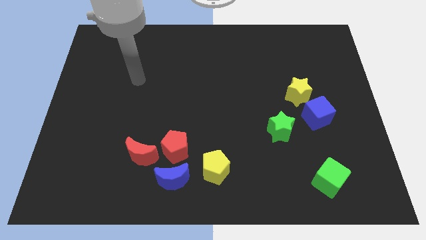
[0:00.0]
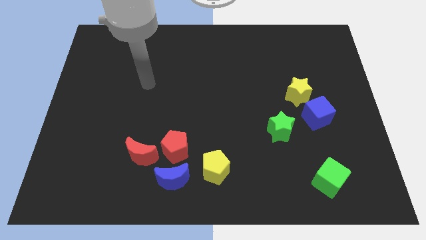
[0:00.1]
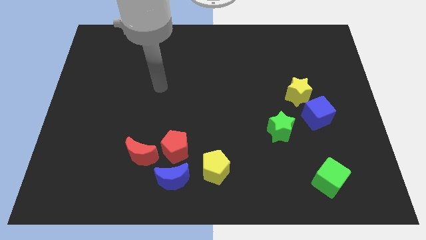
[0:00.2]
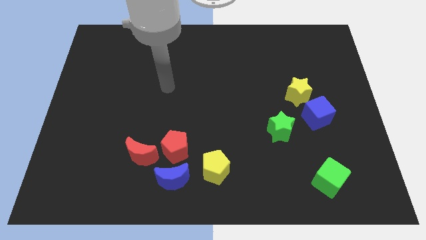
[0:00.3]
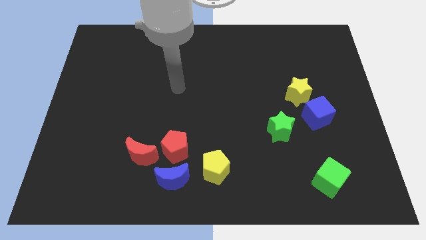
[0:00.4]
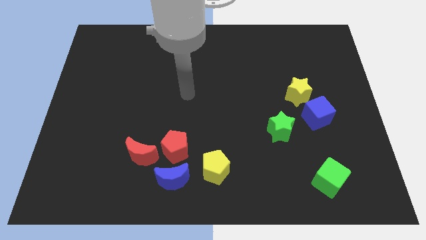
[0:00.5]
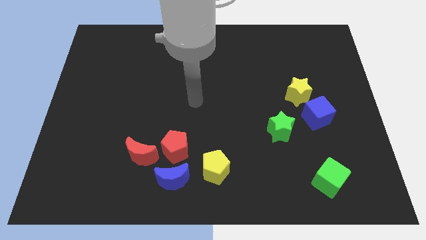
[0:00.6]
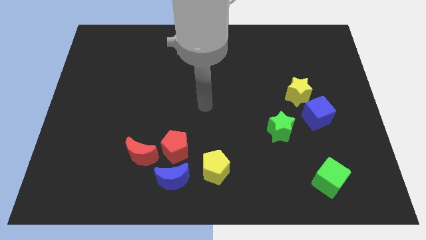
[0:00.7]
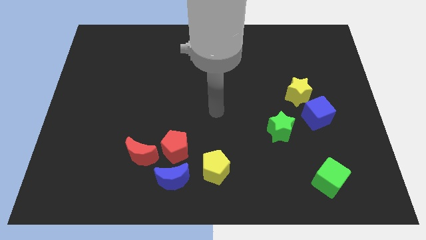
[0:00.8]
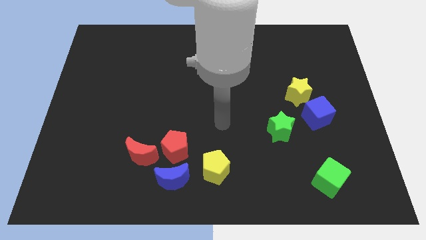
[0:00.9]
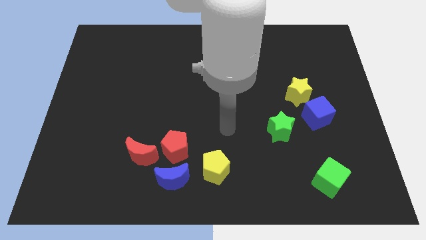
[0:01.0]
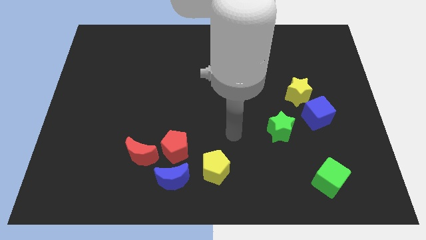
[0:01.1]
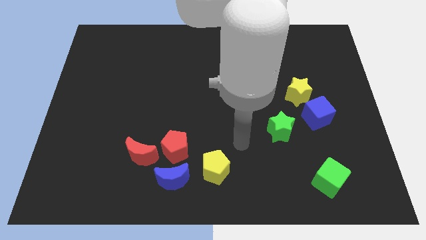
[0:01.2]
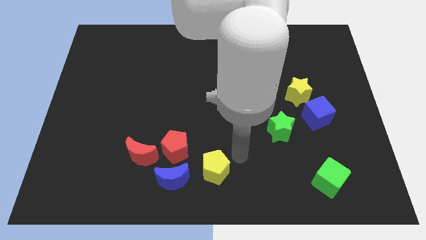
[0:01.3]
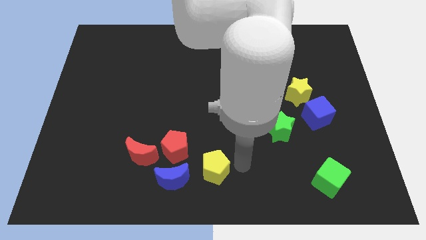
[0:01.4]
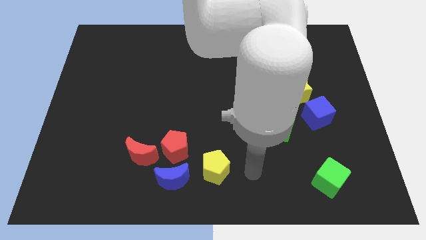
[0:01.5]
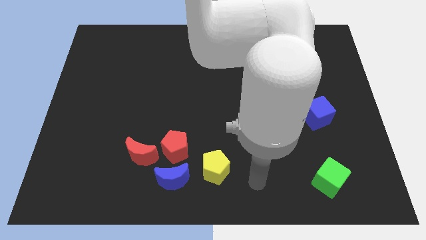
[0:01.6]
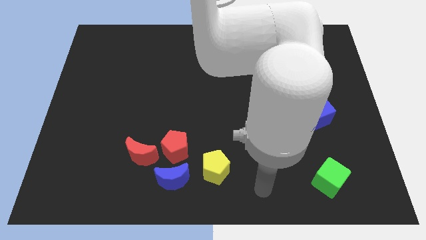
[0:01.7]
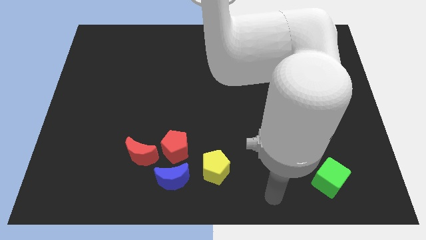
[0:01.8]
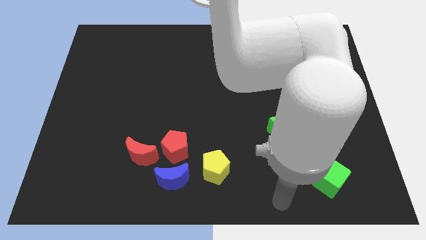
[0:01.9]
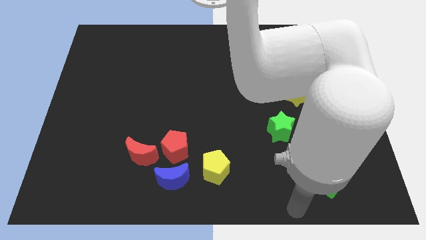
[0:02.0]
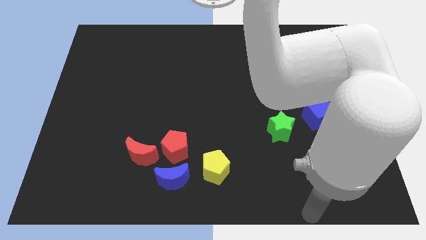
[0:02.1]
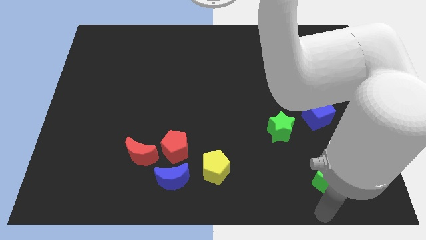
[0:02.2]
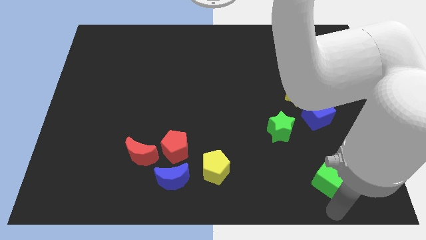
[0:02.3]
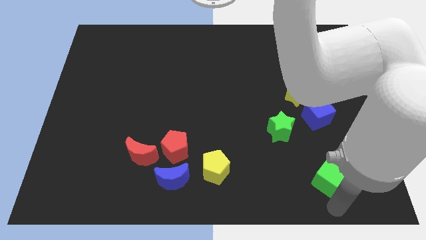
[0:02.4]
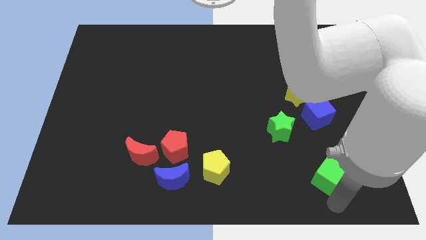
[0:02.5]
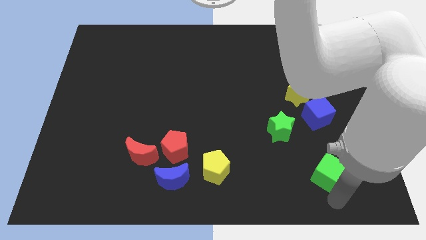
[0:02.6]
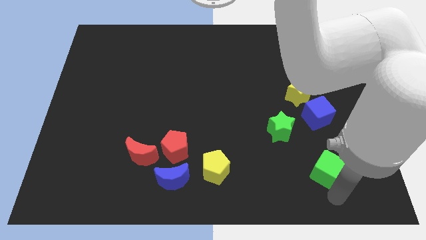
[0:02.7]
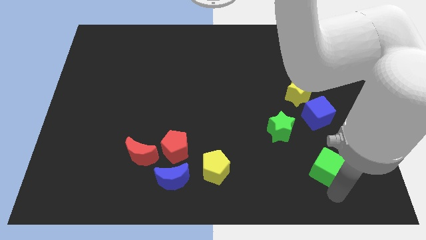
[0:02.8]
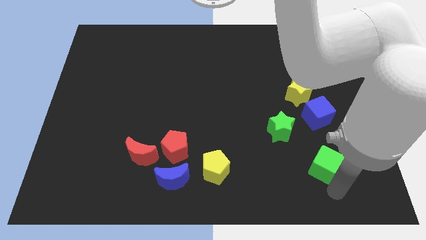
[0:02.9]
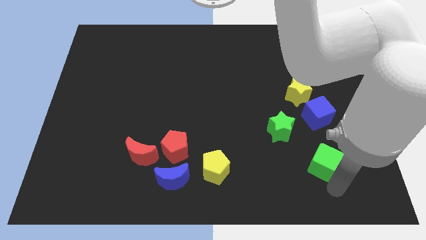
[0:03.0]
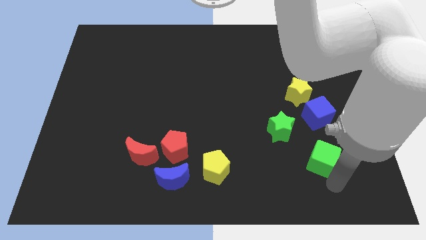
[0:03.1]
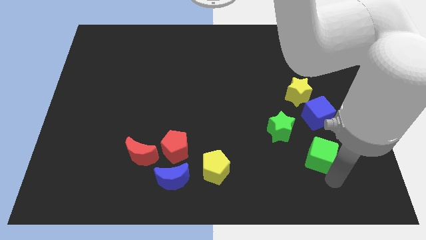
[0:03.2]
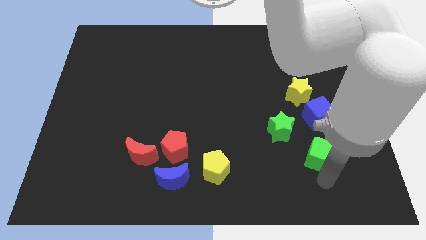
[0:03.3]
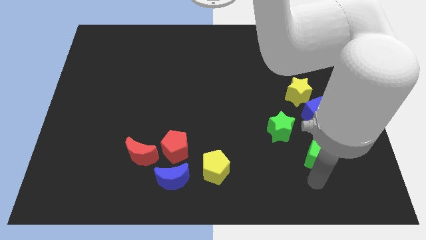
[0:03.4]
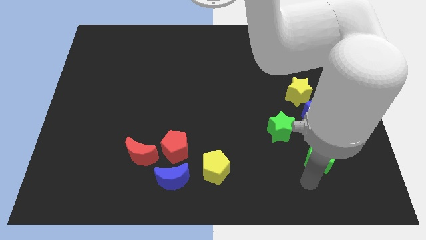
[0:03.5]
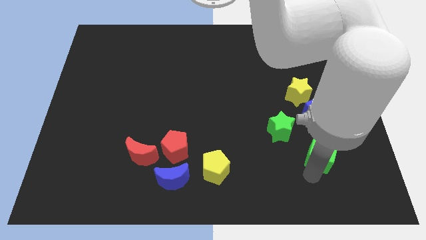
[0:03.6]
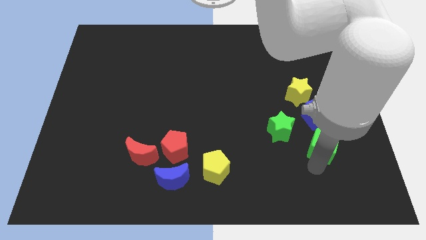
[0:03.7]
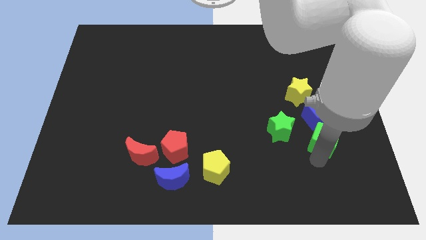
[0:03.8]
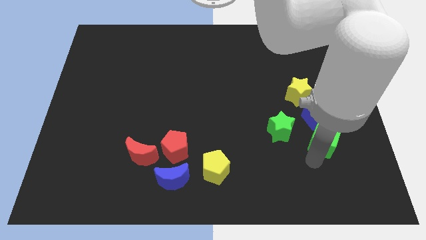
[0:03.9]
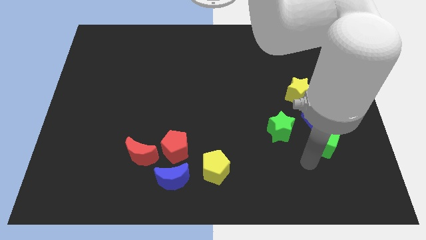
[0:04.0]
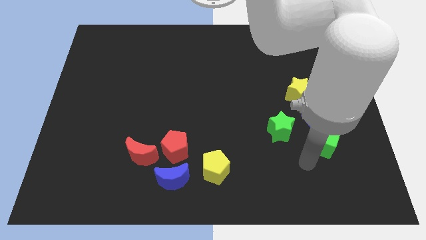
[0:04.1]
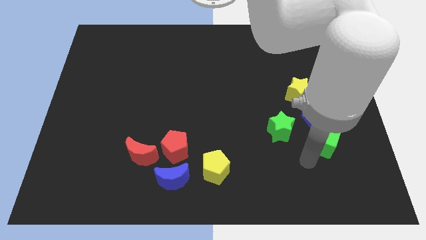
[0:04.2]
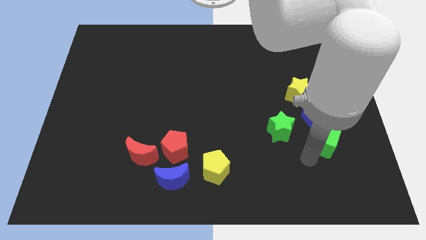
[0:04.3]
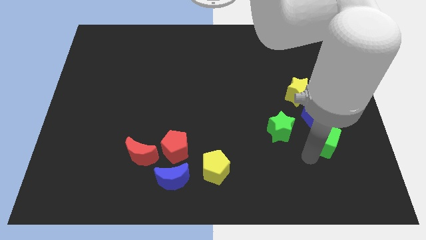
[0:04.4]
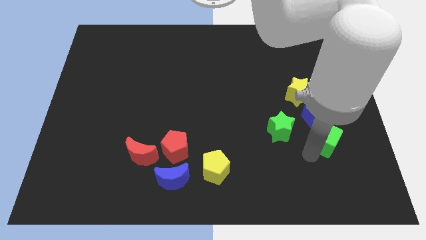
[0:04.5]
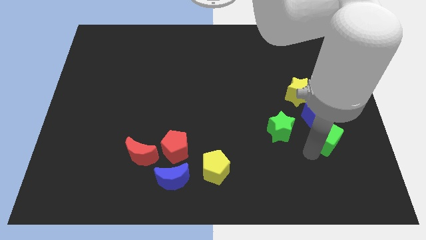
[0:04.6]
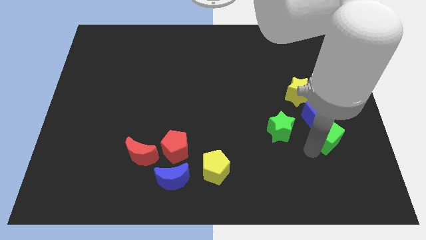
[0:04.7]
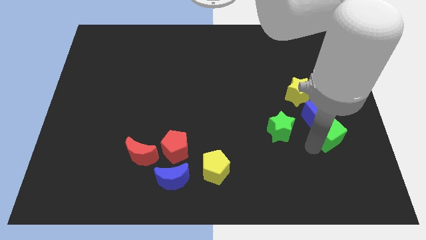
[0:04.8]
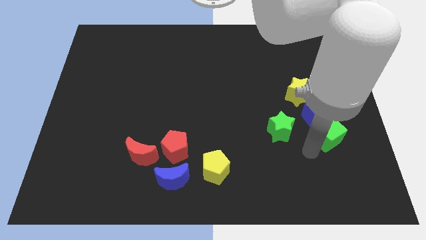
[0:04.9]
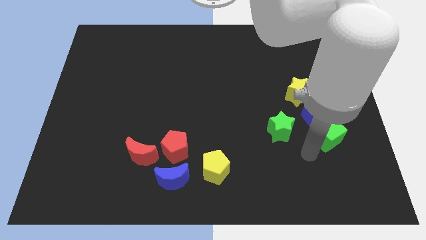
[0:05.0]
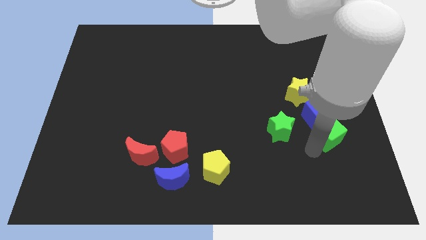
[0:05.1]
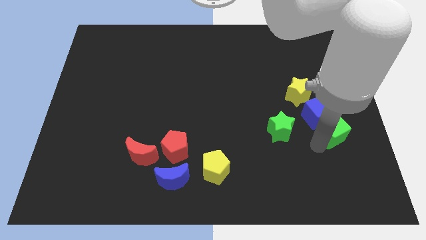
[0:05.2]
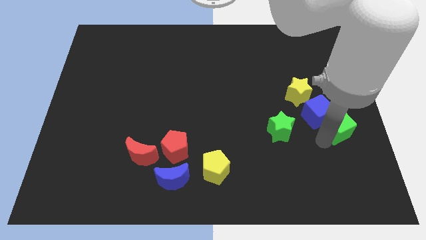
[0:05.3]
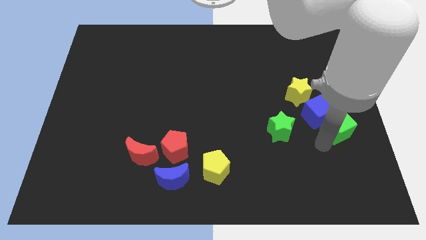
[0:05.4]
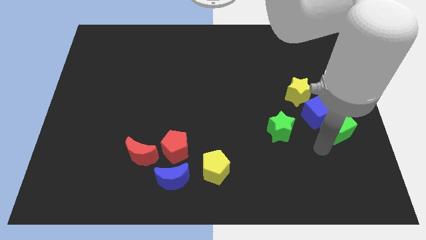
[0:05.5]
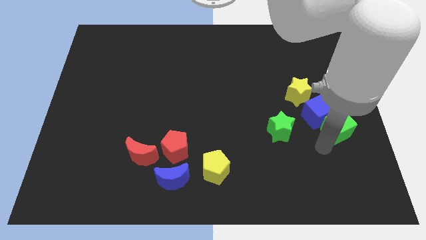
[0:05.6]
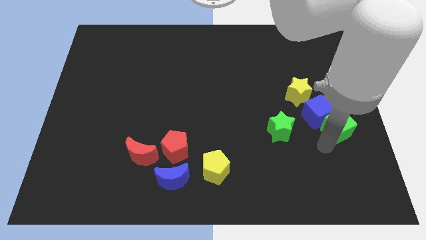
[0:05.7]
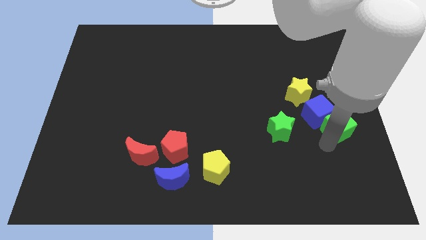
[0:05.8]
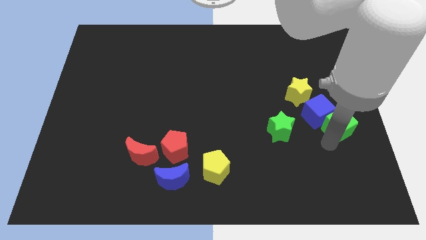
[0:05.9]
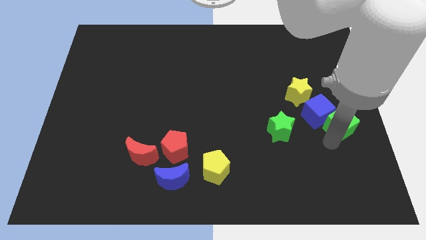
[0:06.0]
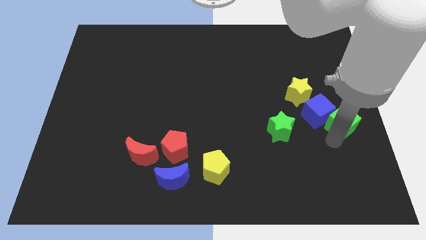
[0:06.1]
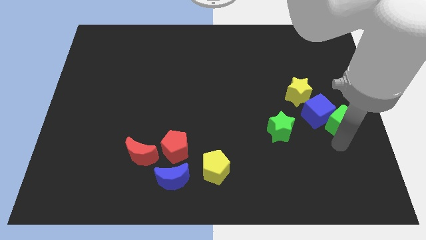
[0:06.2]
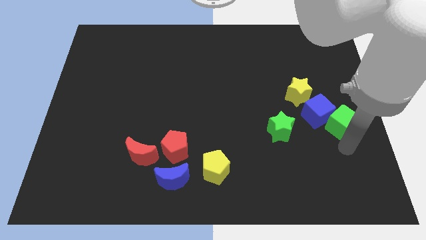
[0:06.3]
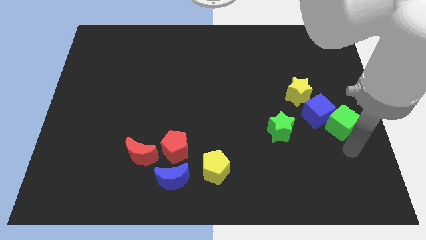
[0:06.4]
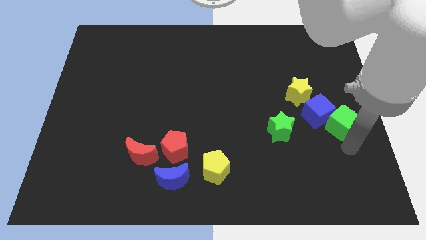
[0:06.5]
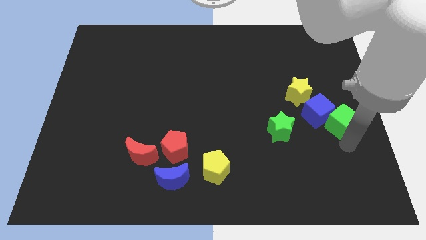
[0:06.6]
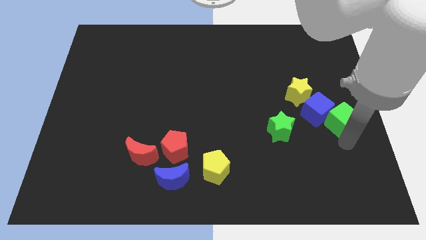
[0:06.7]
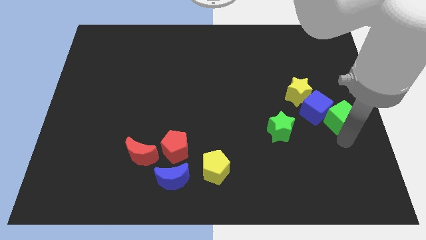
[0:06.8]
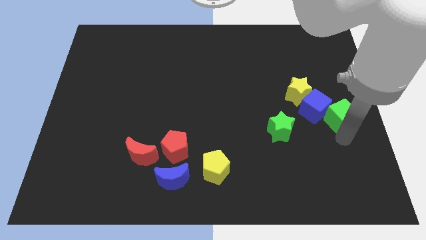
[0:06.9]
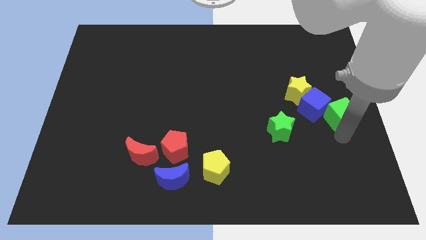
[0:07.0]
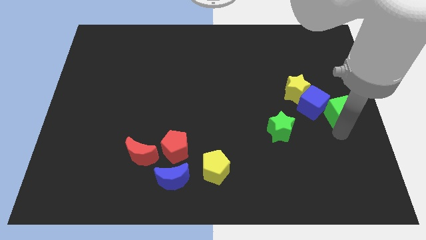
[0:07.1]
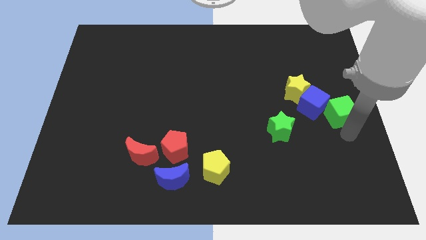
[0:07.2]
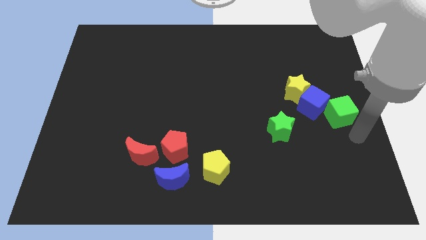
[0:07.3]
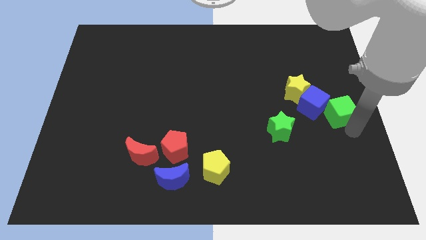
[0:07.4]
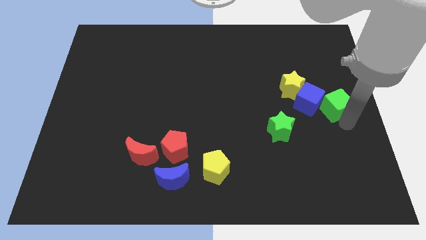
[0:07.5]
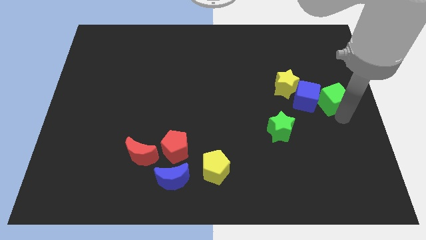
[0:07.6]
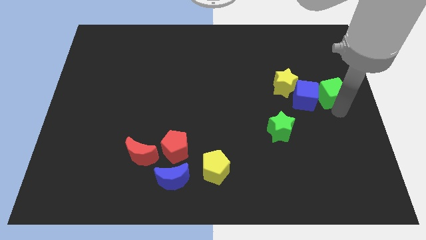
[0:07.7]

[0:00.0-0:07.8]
move the green cube upwards

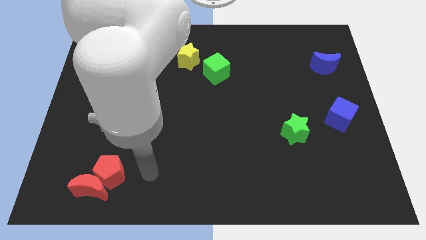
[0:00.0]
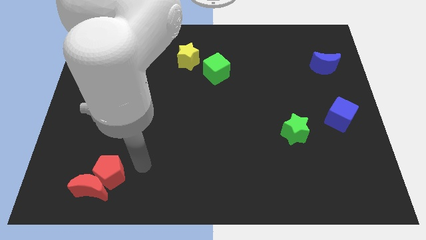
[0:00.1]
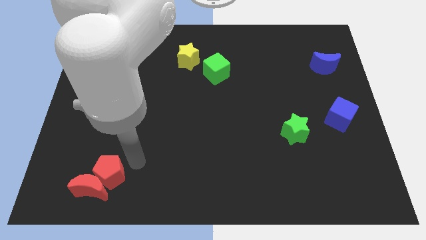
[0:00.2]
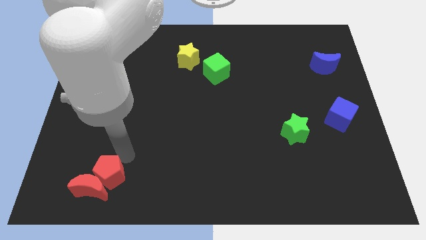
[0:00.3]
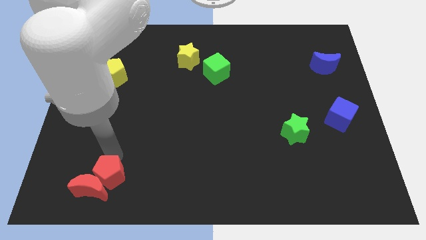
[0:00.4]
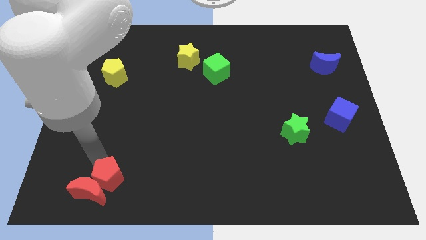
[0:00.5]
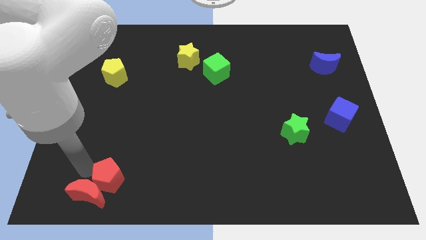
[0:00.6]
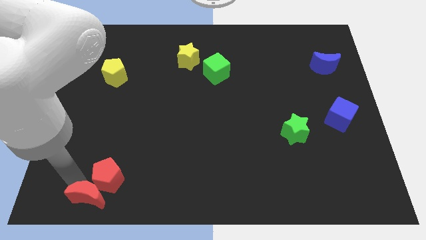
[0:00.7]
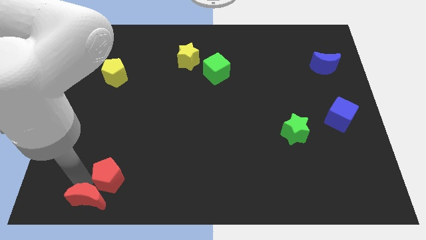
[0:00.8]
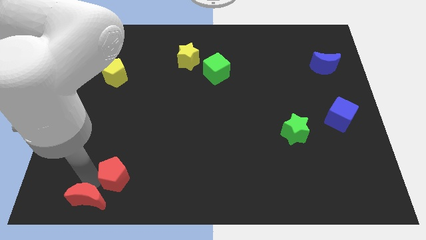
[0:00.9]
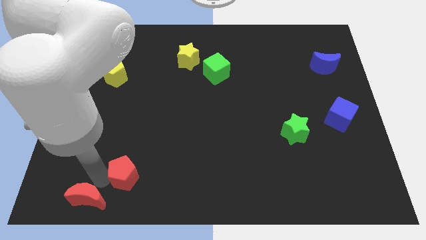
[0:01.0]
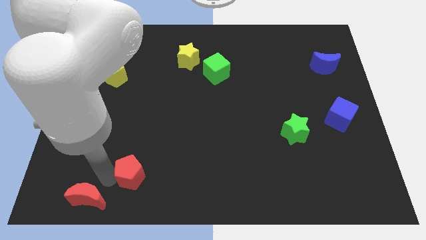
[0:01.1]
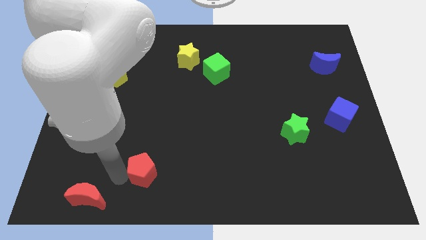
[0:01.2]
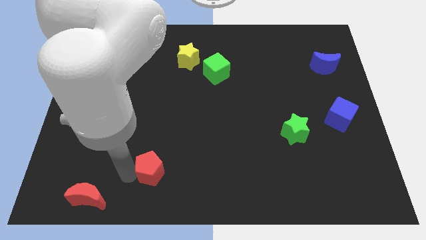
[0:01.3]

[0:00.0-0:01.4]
slide the red pentagon to the right a bit
